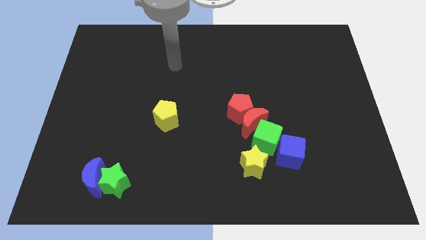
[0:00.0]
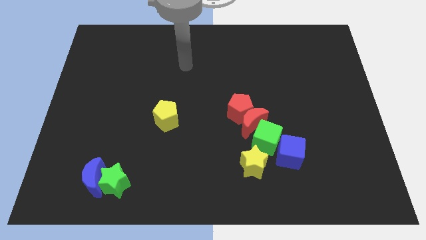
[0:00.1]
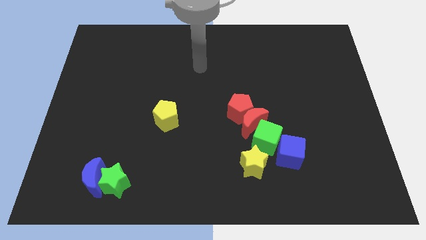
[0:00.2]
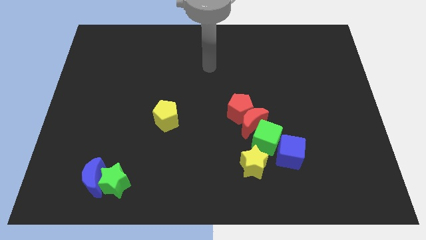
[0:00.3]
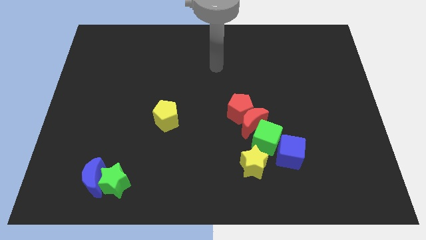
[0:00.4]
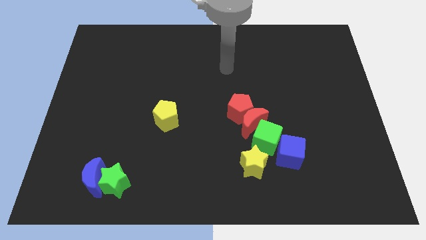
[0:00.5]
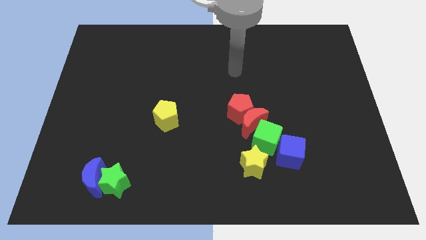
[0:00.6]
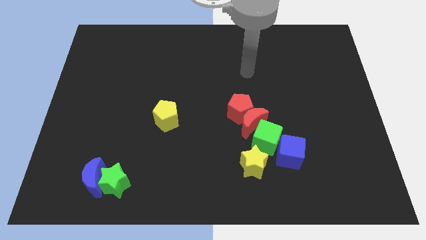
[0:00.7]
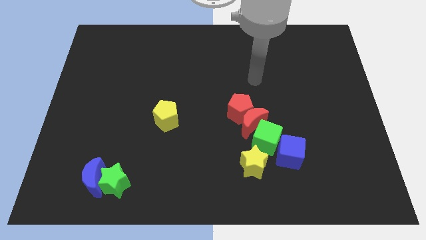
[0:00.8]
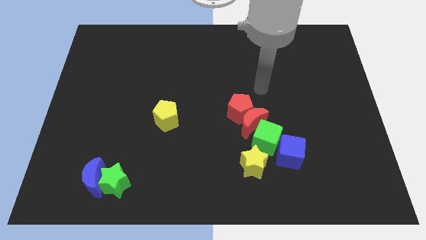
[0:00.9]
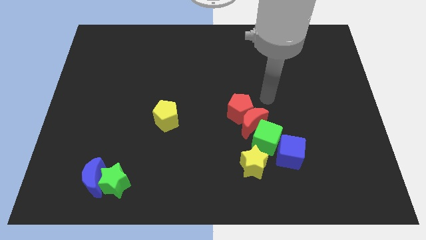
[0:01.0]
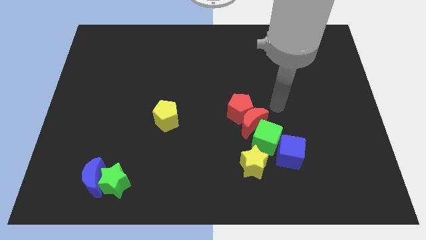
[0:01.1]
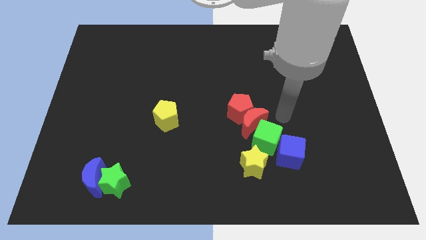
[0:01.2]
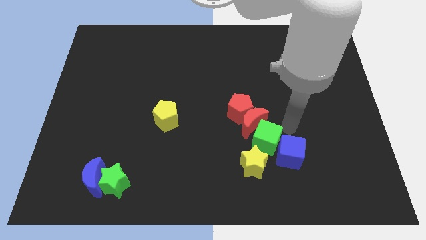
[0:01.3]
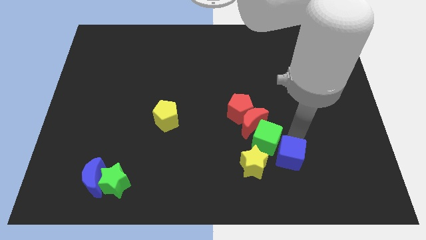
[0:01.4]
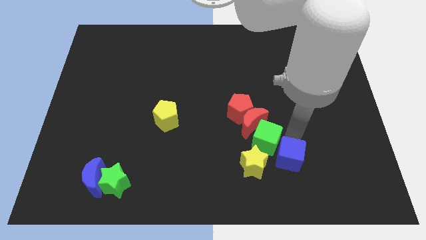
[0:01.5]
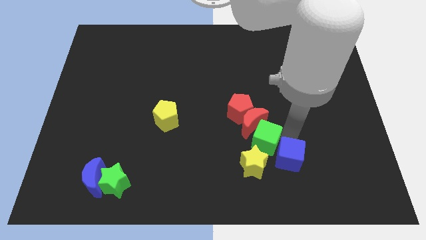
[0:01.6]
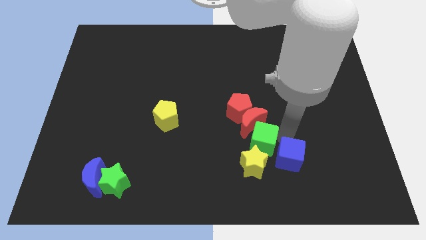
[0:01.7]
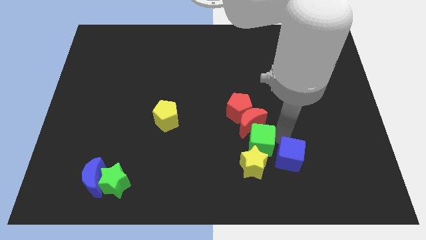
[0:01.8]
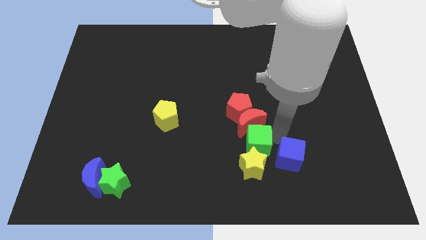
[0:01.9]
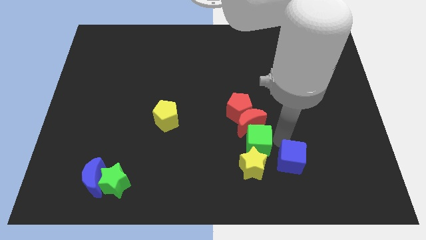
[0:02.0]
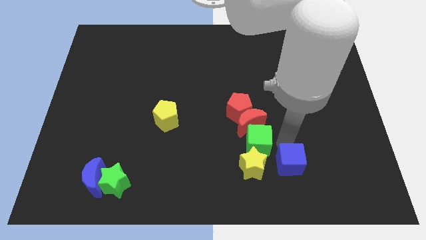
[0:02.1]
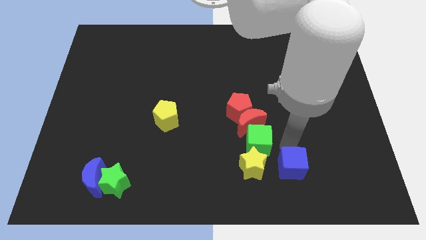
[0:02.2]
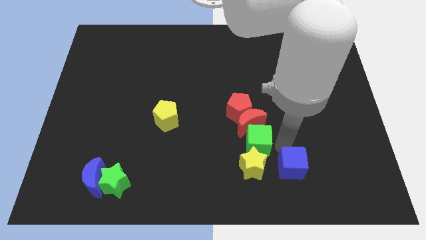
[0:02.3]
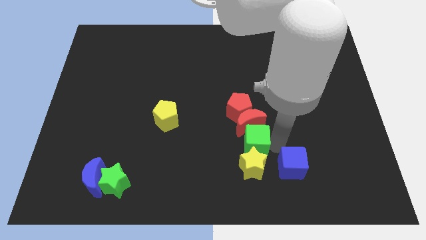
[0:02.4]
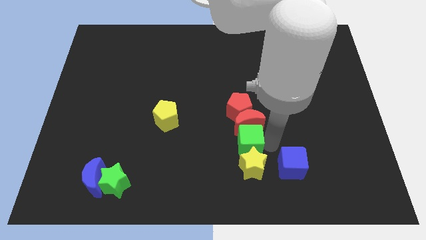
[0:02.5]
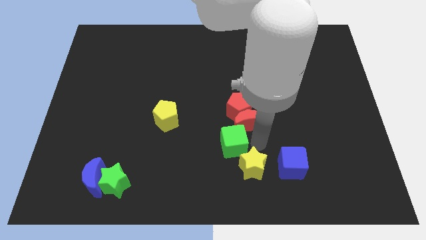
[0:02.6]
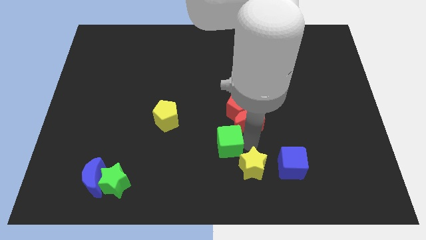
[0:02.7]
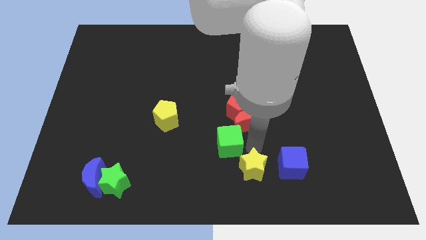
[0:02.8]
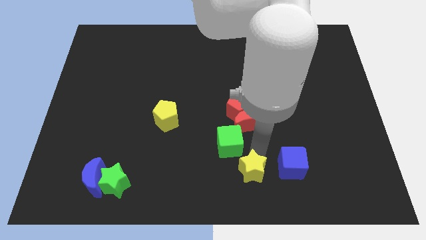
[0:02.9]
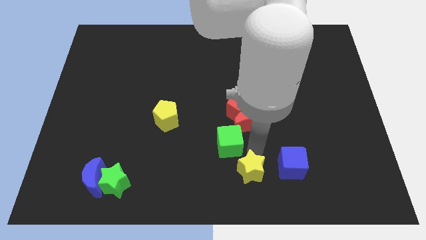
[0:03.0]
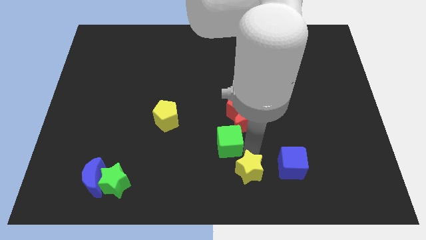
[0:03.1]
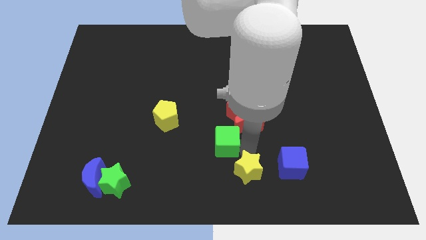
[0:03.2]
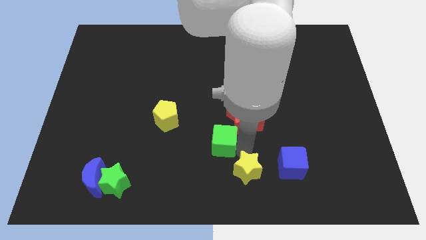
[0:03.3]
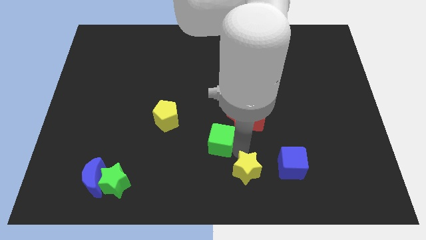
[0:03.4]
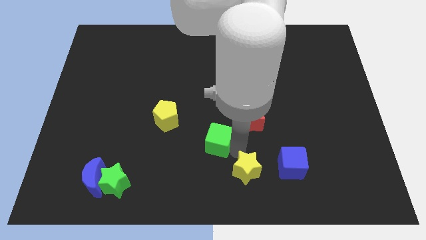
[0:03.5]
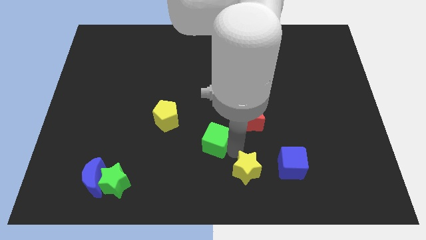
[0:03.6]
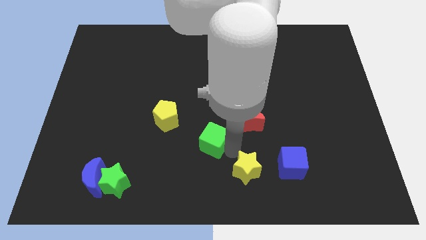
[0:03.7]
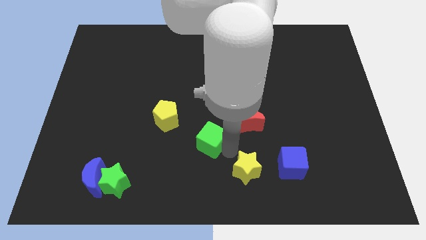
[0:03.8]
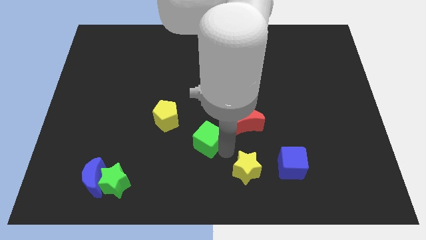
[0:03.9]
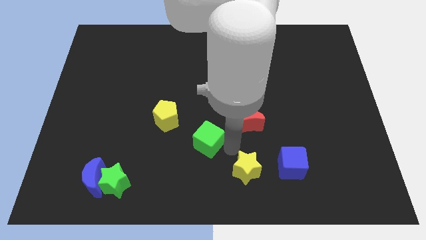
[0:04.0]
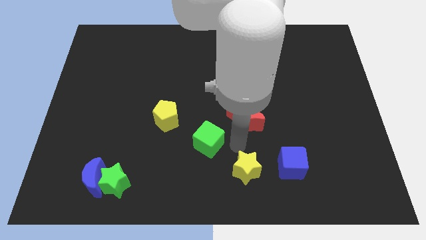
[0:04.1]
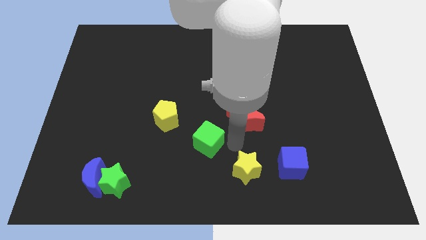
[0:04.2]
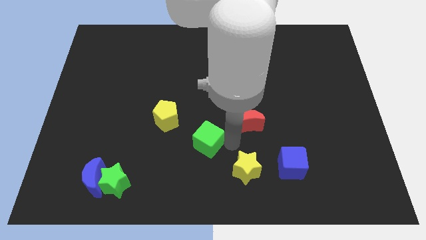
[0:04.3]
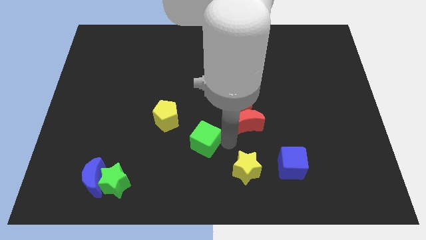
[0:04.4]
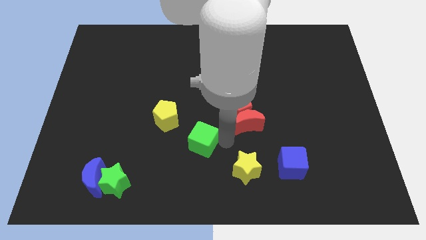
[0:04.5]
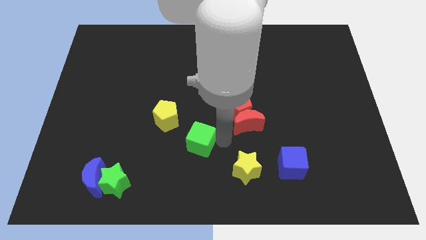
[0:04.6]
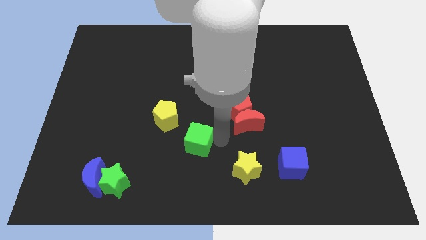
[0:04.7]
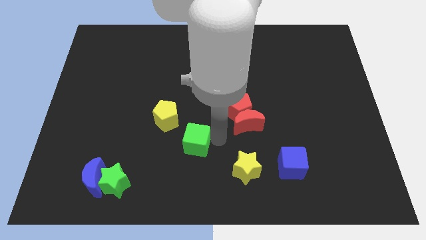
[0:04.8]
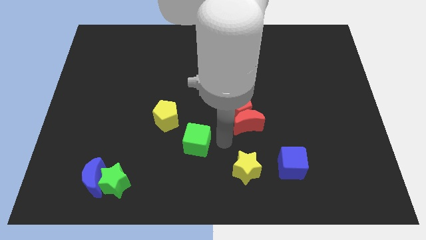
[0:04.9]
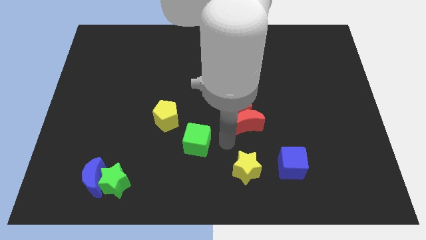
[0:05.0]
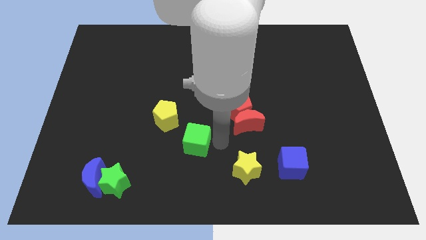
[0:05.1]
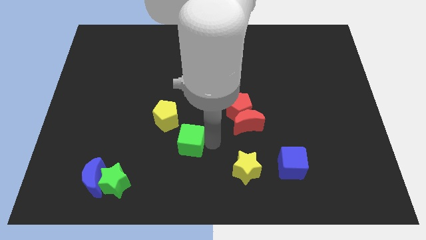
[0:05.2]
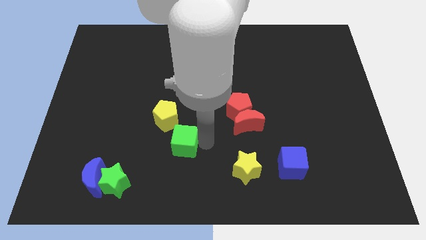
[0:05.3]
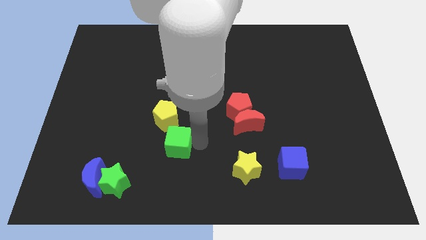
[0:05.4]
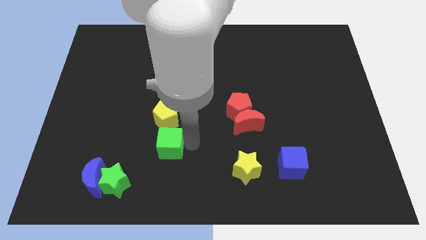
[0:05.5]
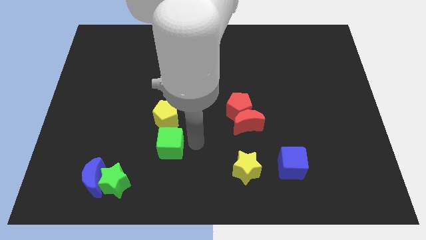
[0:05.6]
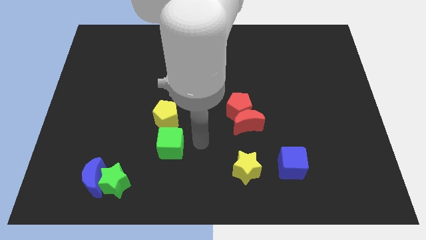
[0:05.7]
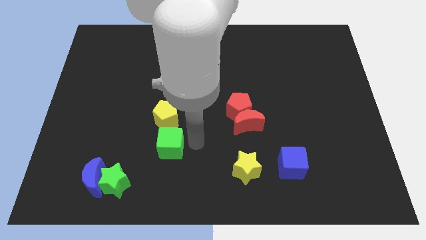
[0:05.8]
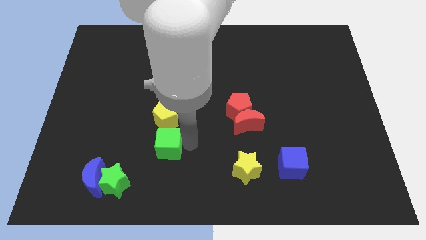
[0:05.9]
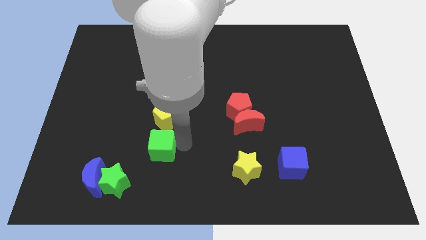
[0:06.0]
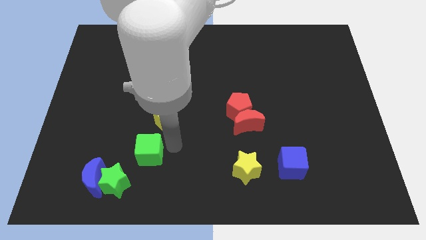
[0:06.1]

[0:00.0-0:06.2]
move the green cube to the top right of the blue moon
